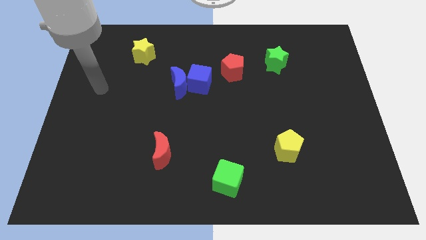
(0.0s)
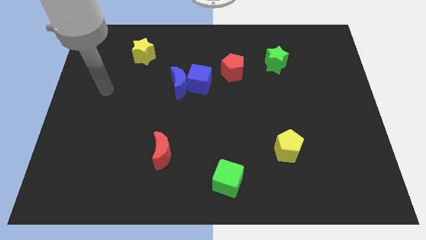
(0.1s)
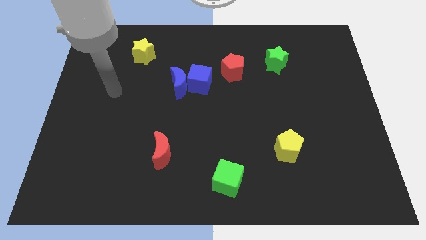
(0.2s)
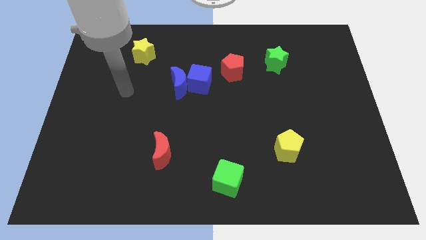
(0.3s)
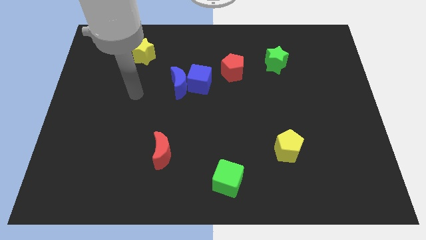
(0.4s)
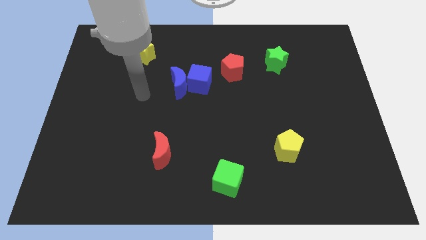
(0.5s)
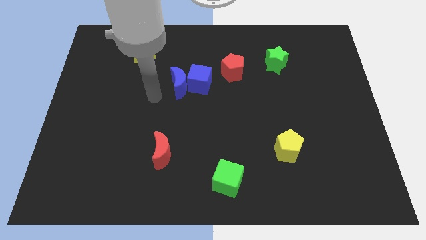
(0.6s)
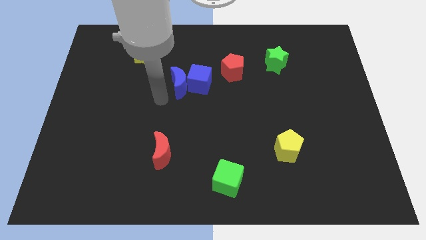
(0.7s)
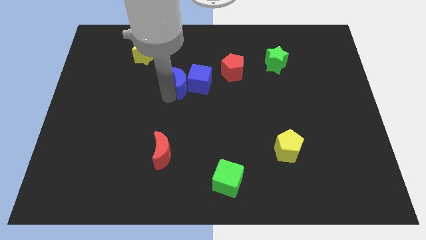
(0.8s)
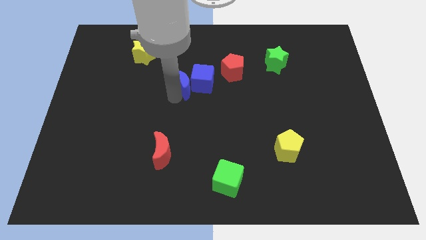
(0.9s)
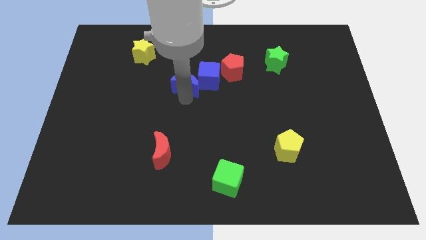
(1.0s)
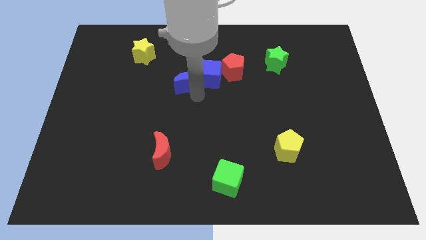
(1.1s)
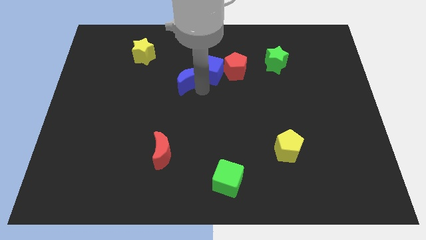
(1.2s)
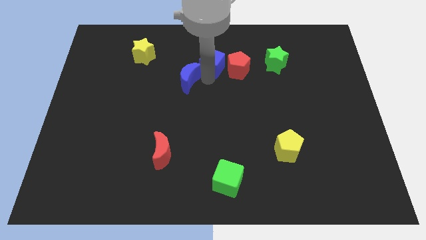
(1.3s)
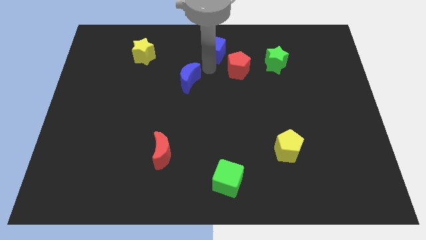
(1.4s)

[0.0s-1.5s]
pull the blue moon apart from the blue cube

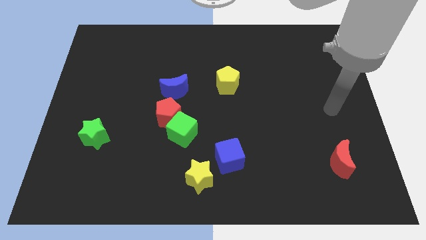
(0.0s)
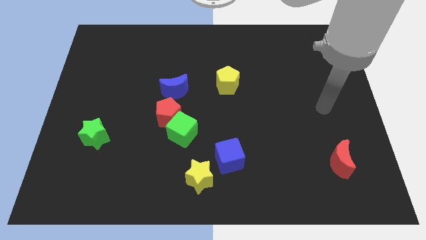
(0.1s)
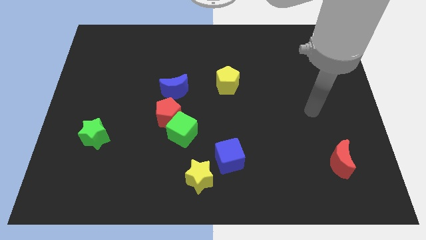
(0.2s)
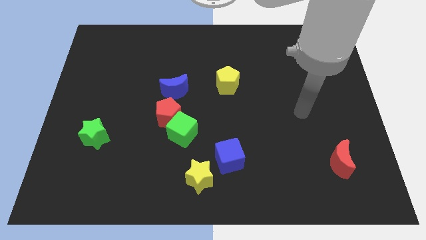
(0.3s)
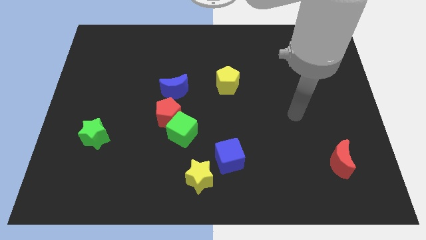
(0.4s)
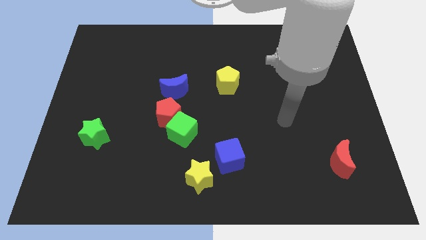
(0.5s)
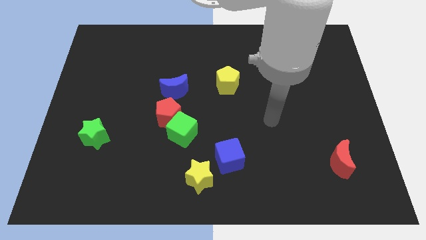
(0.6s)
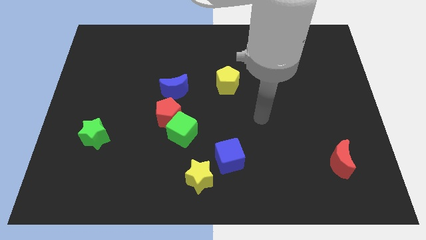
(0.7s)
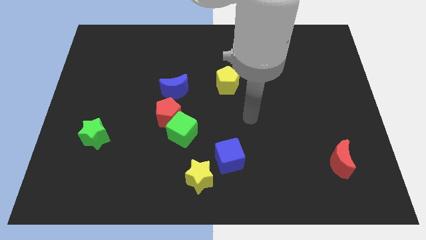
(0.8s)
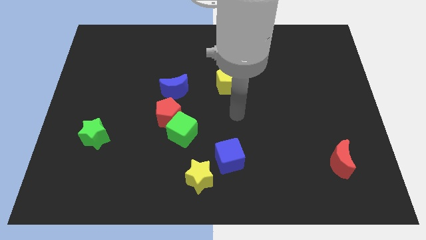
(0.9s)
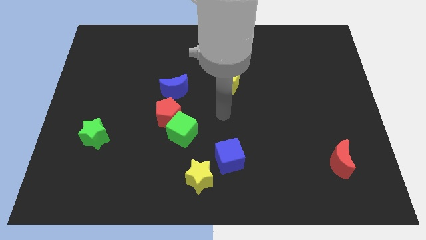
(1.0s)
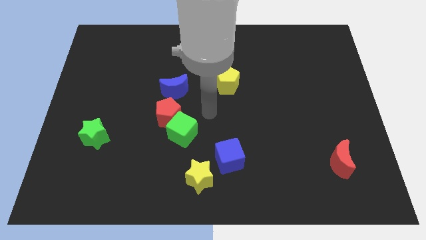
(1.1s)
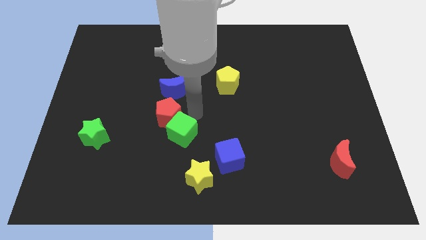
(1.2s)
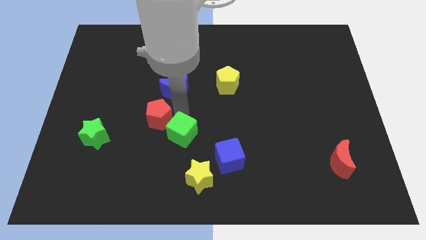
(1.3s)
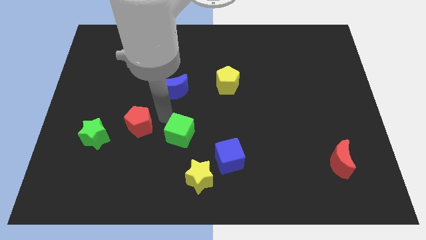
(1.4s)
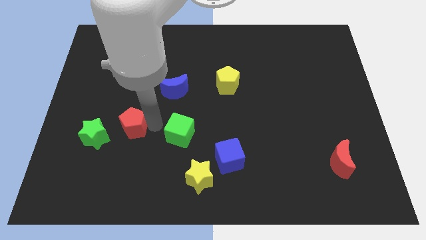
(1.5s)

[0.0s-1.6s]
separate the green cube from the red pentagon

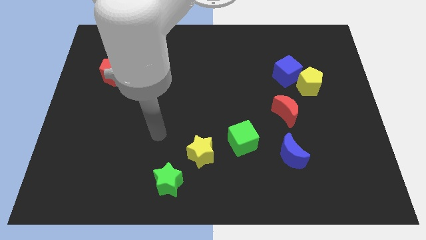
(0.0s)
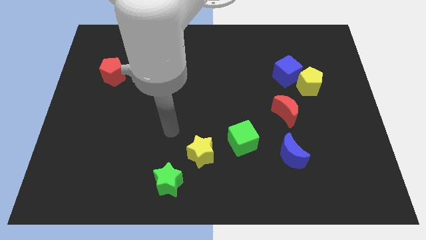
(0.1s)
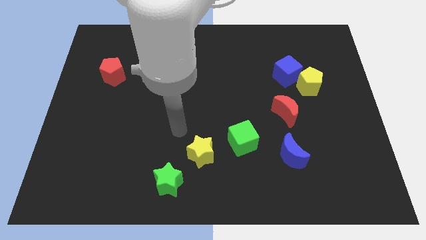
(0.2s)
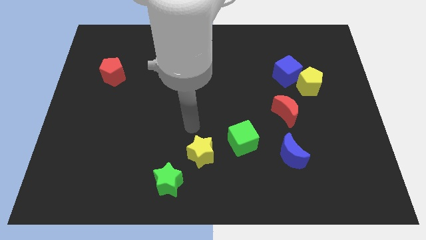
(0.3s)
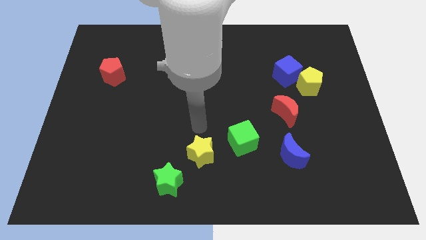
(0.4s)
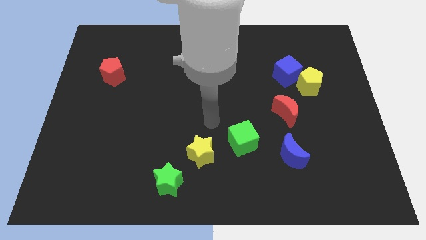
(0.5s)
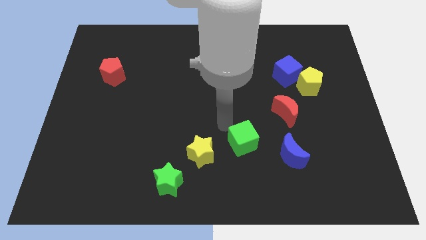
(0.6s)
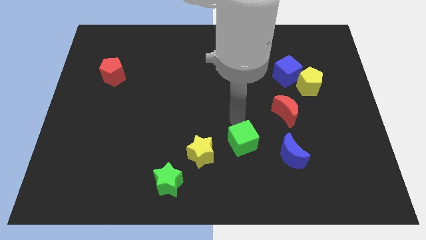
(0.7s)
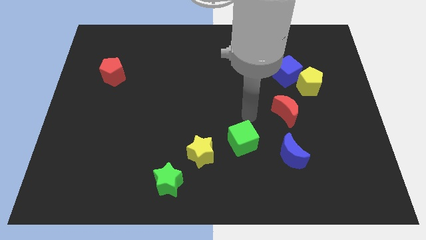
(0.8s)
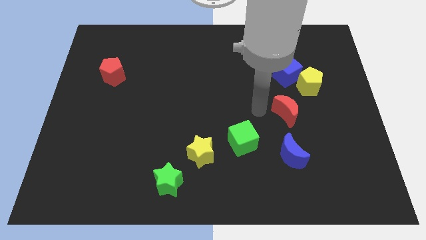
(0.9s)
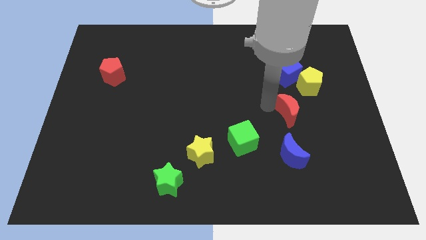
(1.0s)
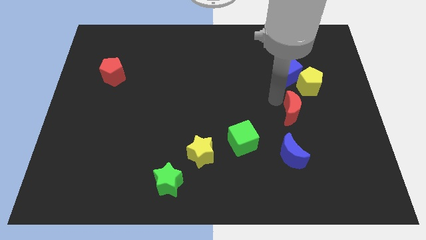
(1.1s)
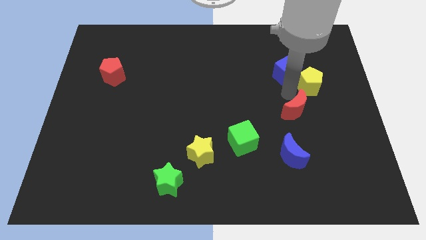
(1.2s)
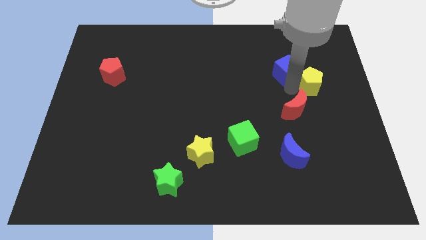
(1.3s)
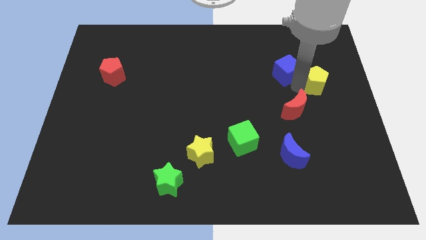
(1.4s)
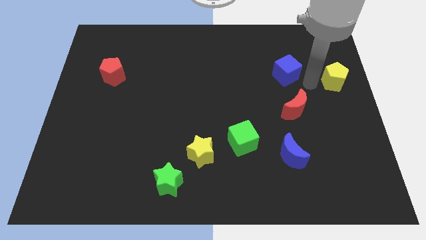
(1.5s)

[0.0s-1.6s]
move the blue cube away from the yellow pentagon

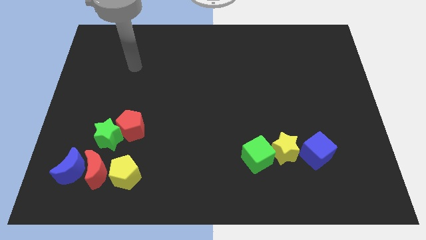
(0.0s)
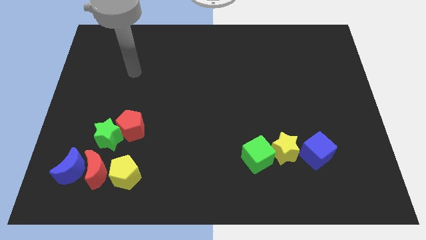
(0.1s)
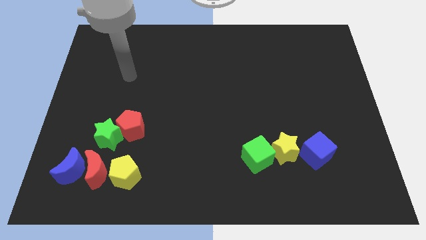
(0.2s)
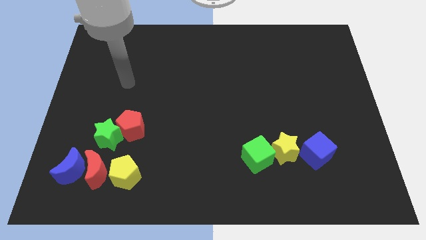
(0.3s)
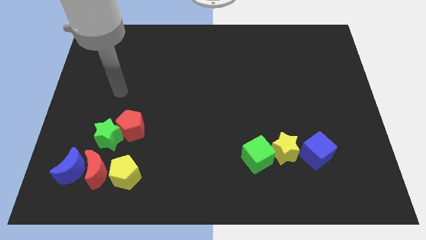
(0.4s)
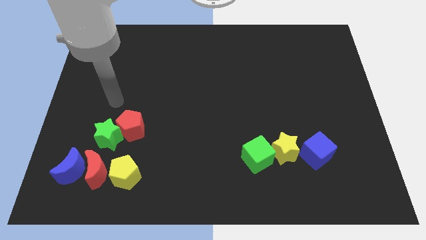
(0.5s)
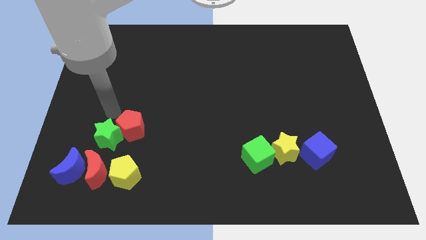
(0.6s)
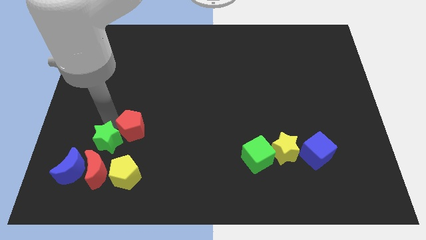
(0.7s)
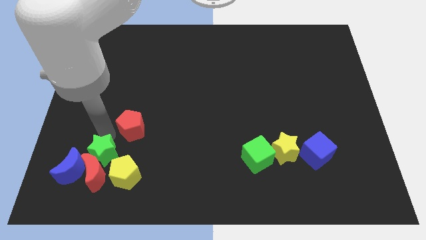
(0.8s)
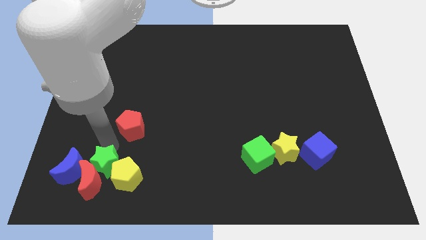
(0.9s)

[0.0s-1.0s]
separate the red pentagon from the green star

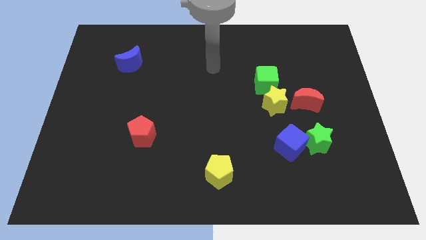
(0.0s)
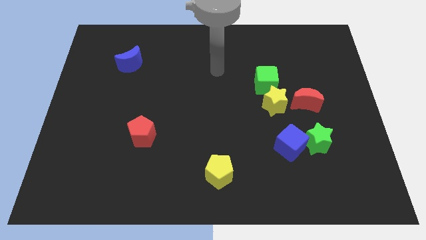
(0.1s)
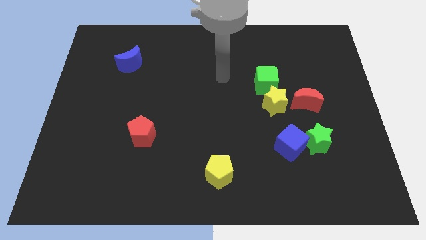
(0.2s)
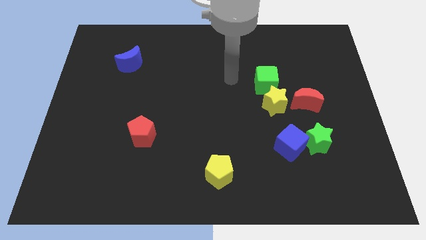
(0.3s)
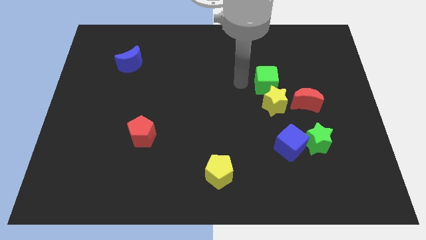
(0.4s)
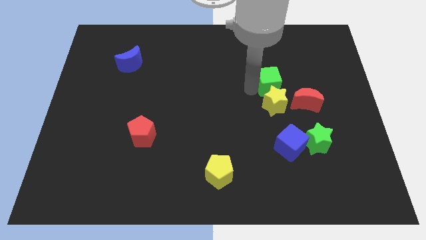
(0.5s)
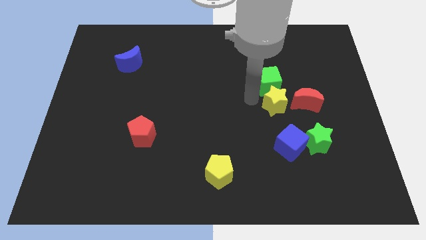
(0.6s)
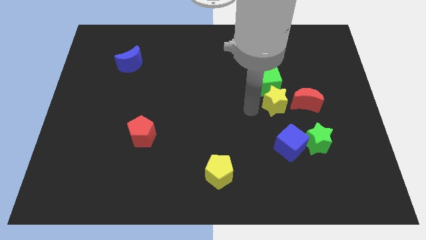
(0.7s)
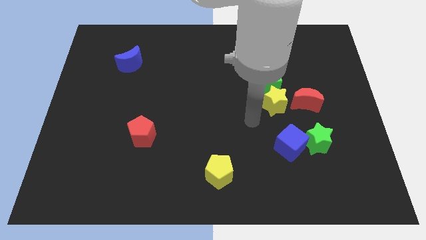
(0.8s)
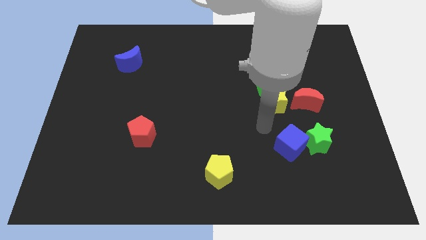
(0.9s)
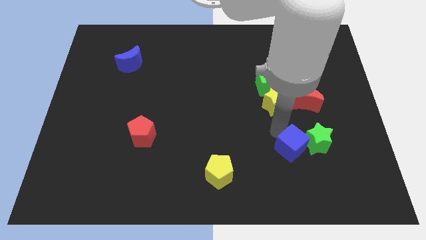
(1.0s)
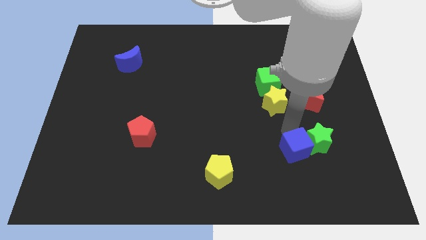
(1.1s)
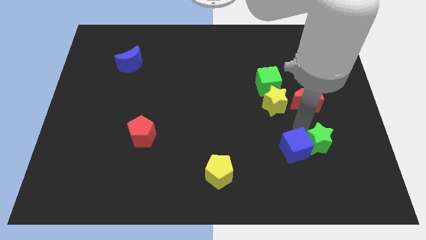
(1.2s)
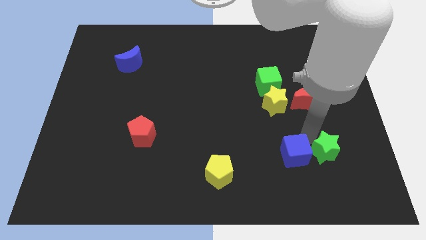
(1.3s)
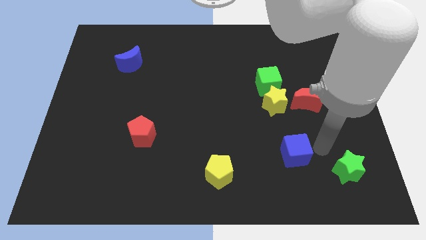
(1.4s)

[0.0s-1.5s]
move the blue cube away from the green star

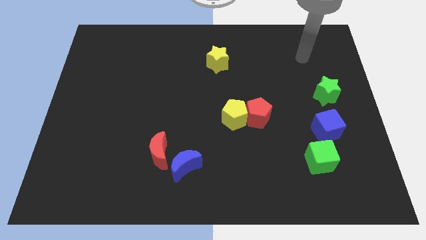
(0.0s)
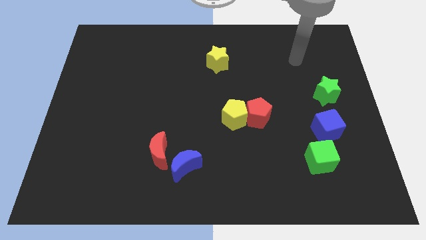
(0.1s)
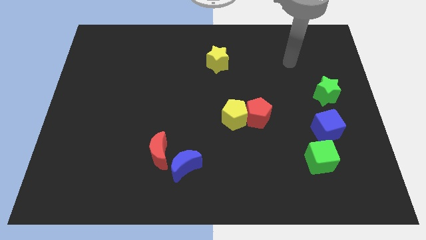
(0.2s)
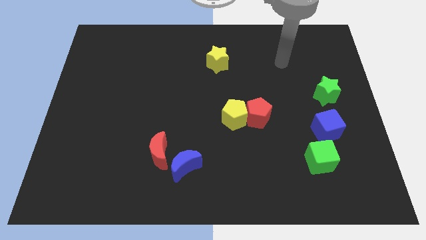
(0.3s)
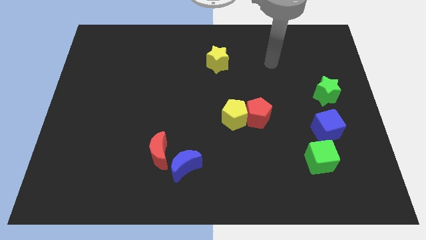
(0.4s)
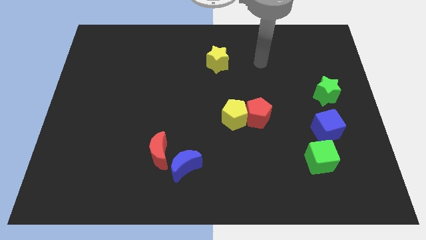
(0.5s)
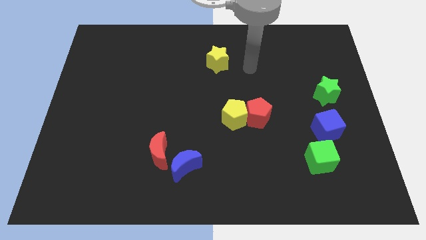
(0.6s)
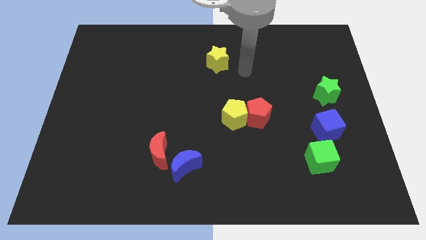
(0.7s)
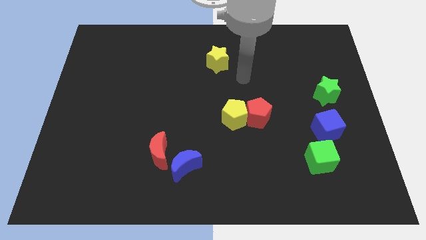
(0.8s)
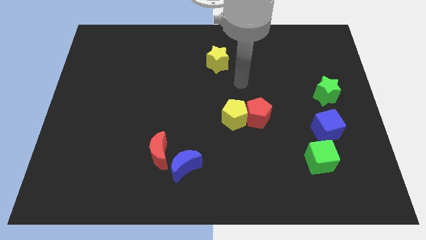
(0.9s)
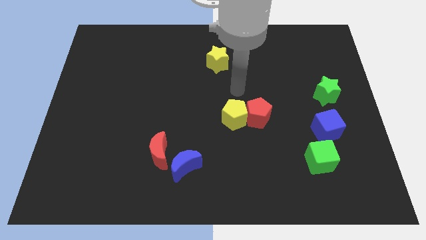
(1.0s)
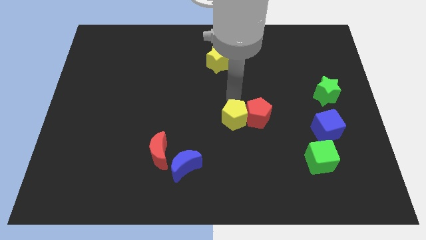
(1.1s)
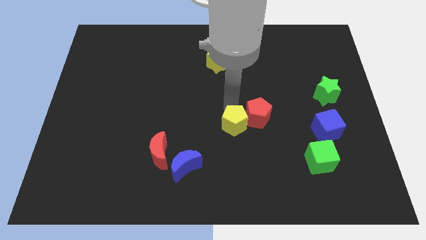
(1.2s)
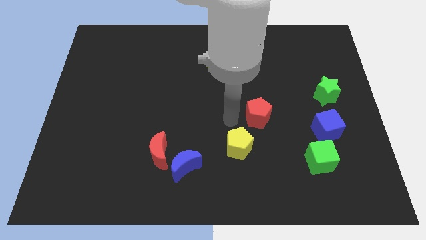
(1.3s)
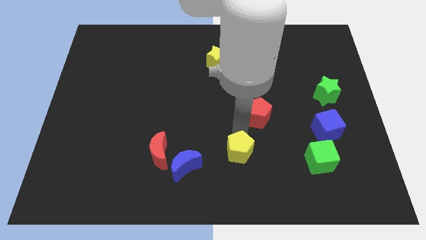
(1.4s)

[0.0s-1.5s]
move the red pentagon away from the yellow pentagon

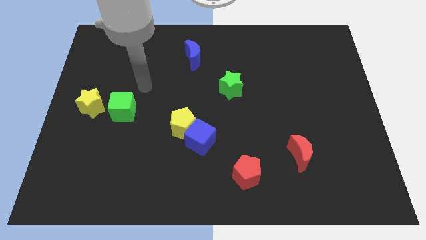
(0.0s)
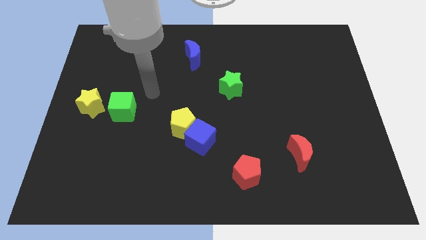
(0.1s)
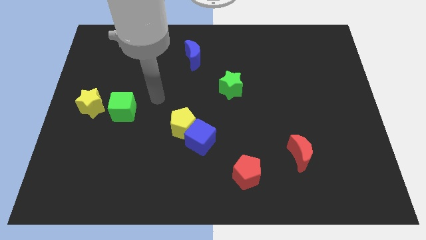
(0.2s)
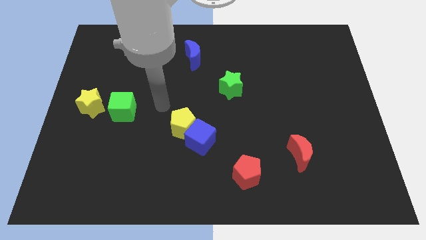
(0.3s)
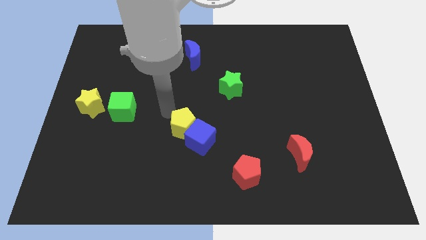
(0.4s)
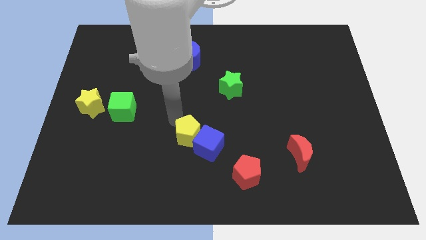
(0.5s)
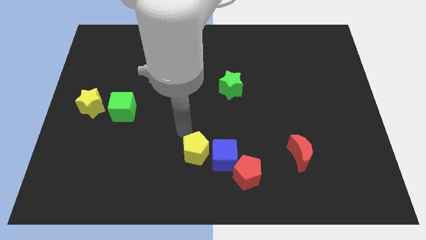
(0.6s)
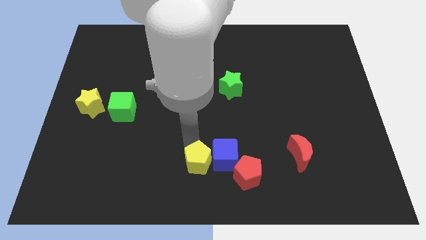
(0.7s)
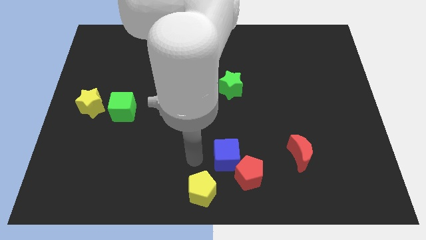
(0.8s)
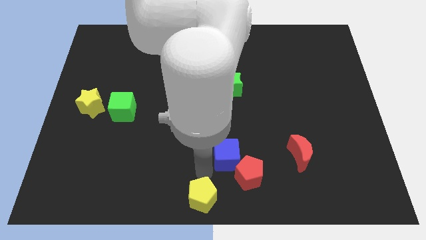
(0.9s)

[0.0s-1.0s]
pull the blue cube apart from the yellow pentagon
